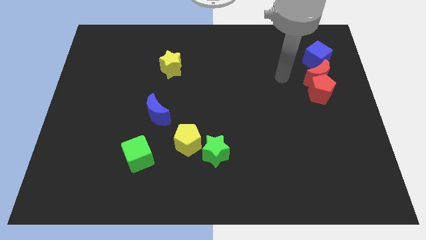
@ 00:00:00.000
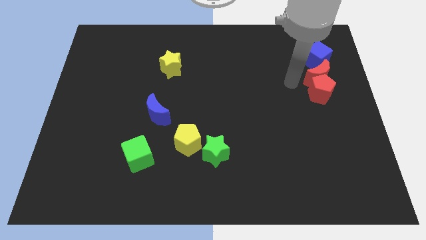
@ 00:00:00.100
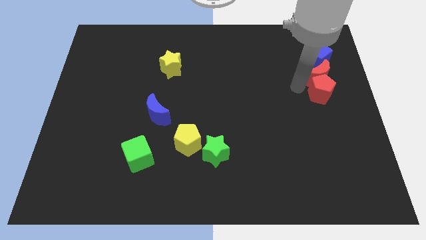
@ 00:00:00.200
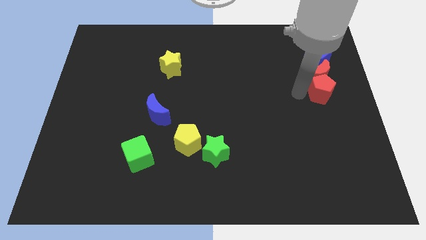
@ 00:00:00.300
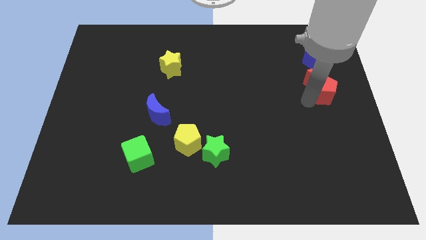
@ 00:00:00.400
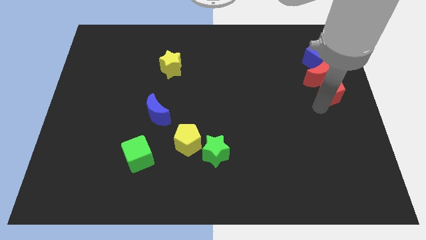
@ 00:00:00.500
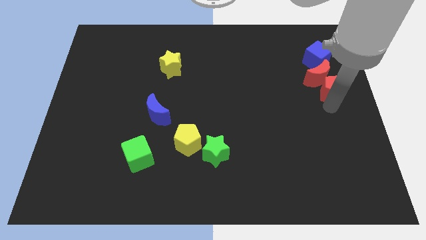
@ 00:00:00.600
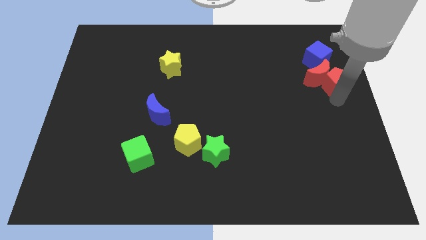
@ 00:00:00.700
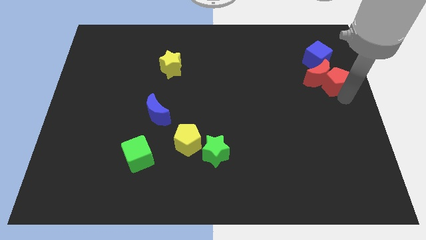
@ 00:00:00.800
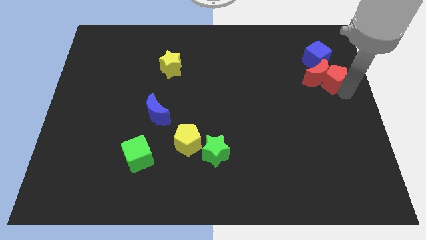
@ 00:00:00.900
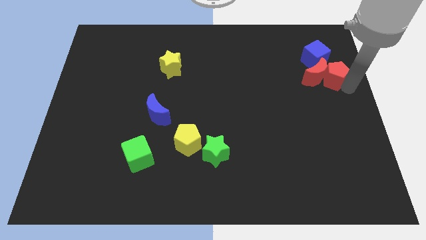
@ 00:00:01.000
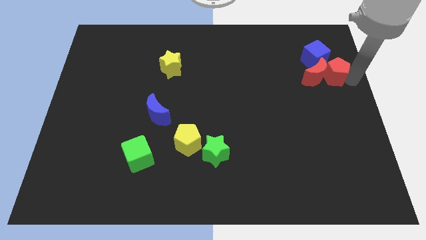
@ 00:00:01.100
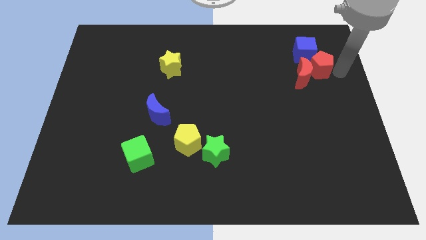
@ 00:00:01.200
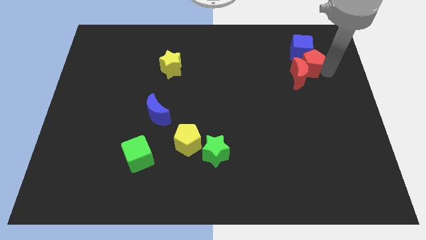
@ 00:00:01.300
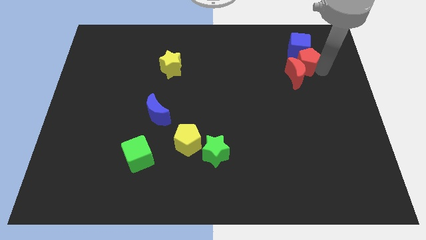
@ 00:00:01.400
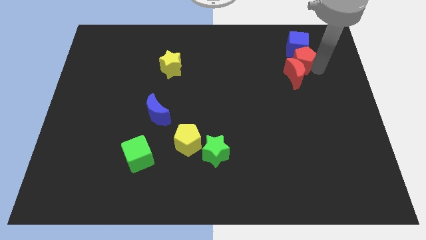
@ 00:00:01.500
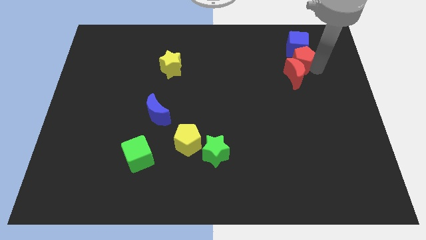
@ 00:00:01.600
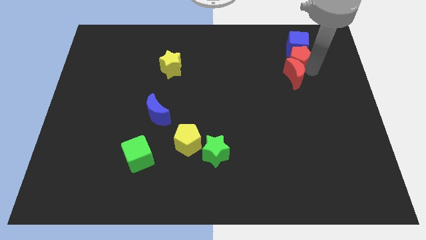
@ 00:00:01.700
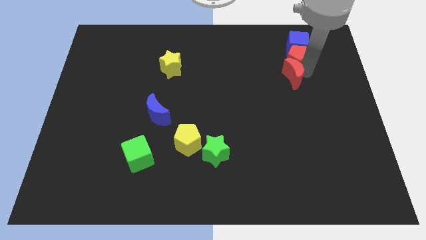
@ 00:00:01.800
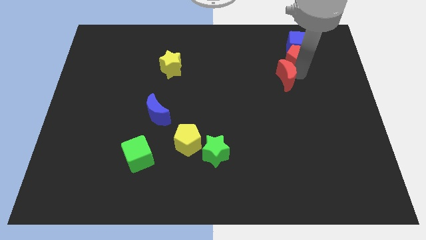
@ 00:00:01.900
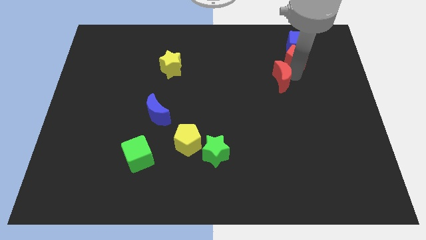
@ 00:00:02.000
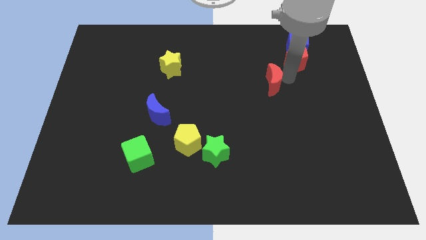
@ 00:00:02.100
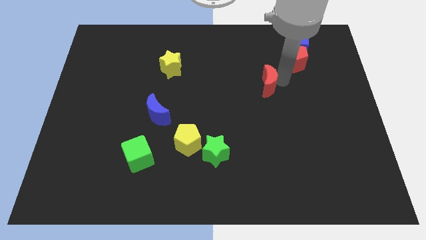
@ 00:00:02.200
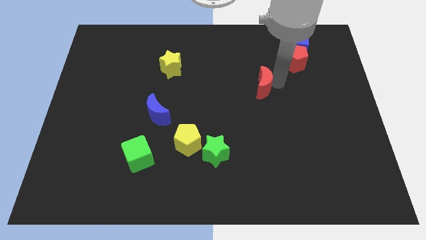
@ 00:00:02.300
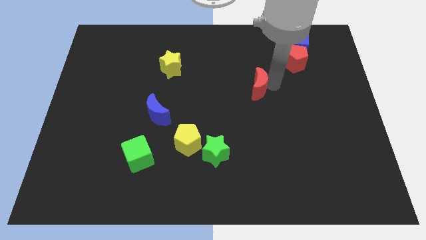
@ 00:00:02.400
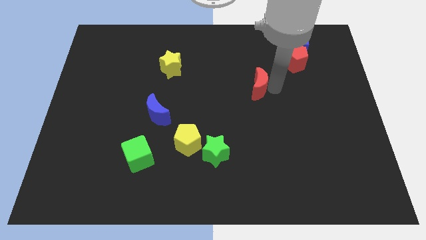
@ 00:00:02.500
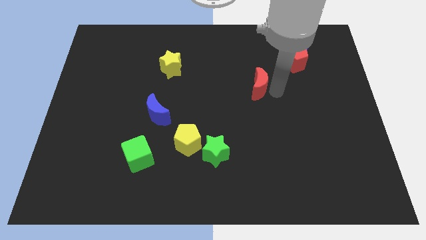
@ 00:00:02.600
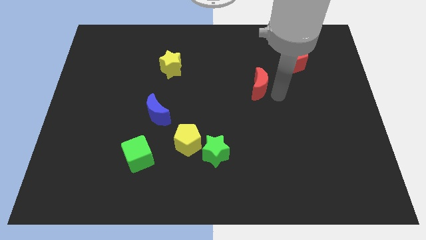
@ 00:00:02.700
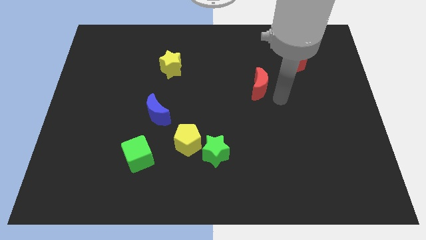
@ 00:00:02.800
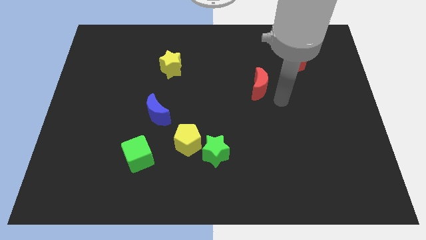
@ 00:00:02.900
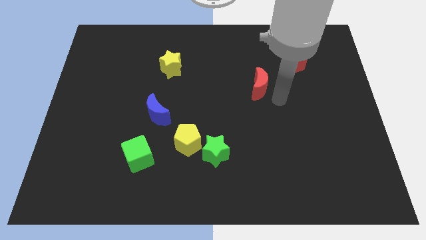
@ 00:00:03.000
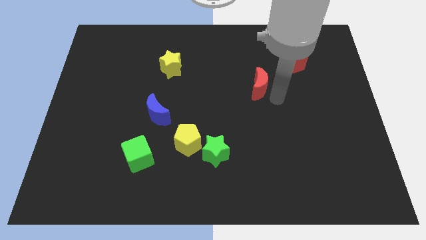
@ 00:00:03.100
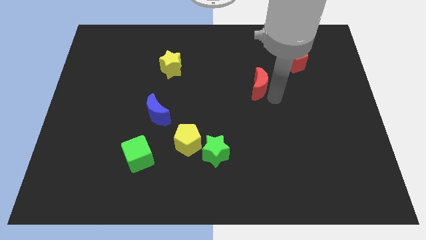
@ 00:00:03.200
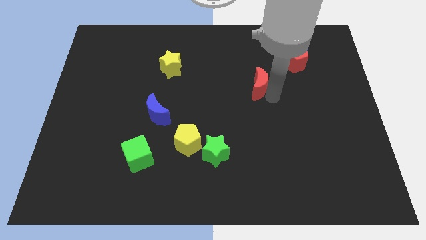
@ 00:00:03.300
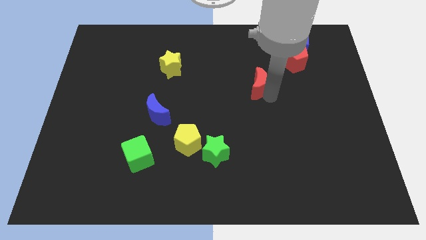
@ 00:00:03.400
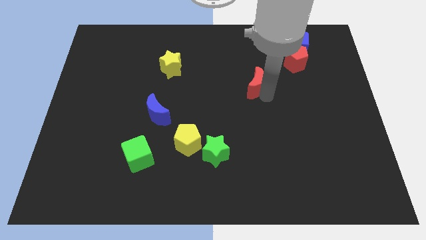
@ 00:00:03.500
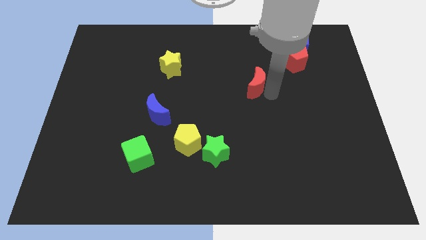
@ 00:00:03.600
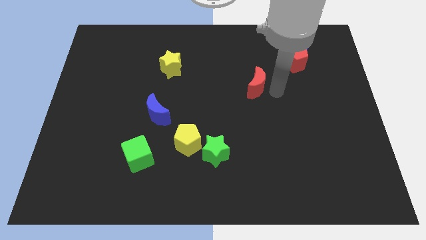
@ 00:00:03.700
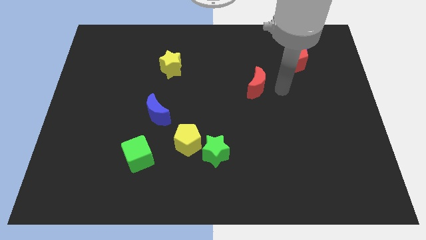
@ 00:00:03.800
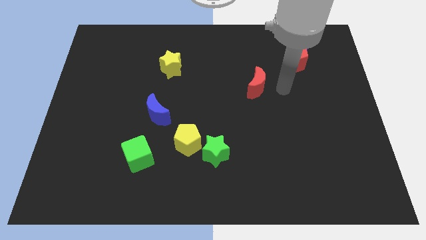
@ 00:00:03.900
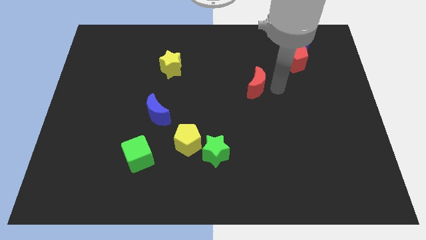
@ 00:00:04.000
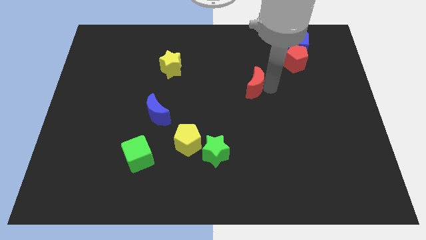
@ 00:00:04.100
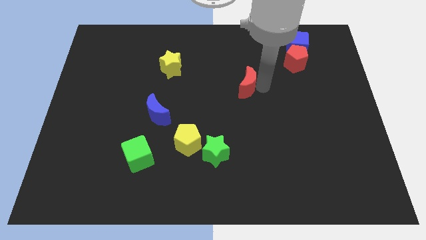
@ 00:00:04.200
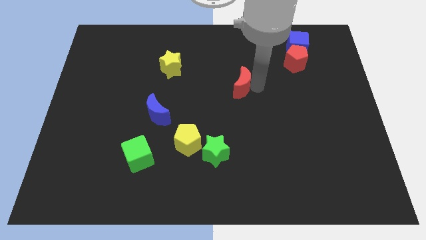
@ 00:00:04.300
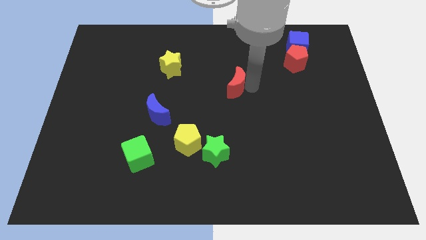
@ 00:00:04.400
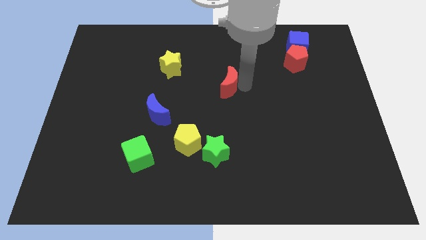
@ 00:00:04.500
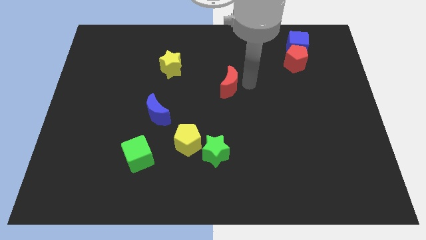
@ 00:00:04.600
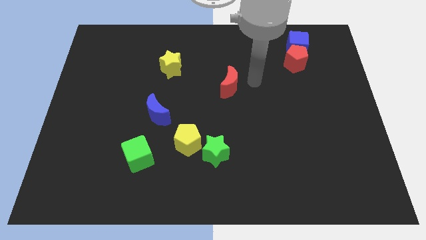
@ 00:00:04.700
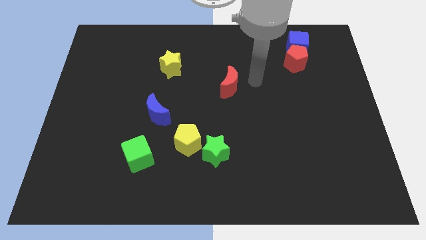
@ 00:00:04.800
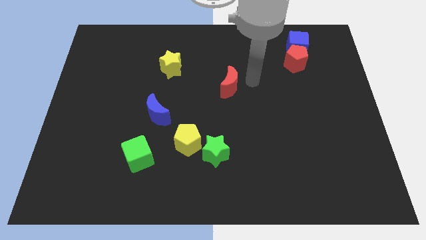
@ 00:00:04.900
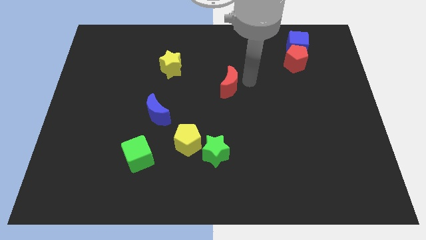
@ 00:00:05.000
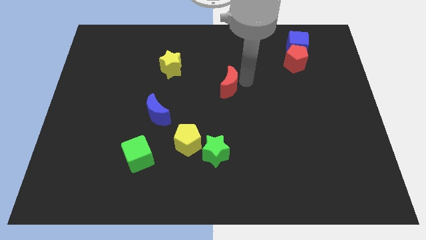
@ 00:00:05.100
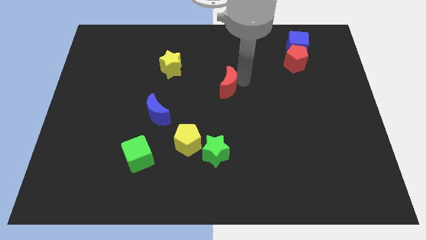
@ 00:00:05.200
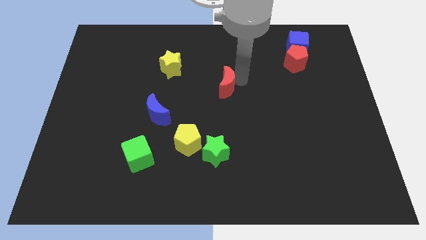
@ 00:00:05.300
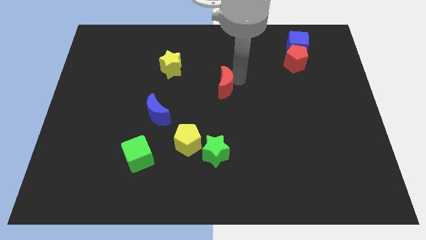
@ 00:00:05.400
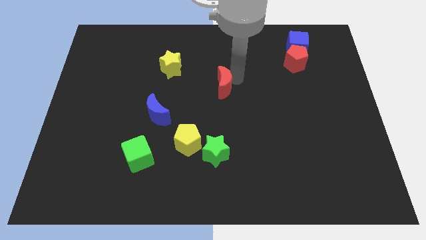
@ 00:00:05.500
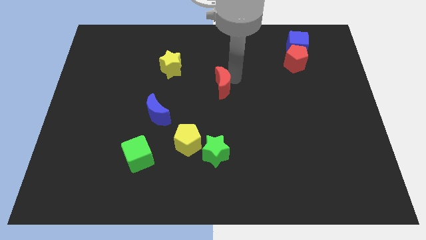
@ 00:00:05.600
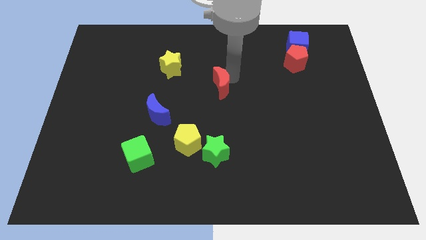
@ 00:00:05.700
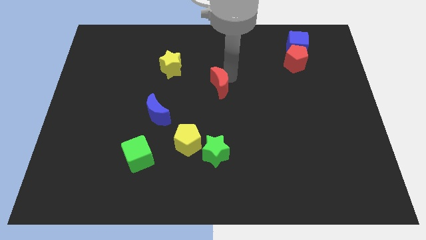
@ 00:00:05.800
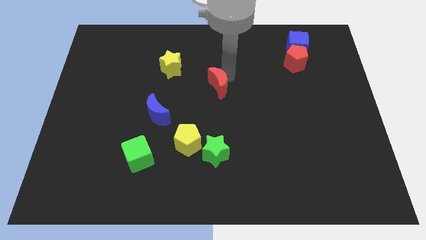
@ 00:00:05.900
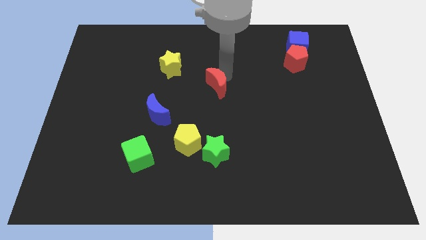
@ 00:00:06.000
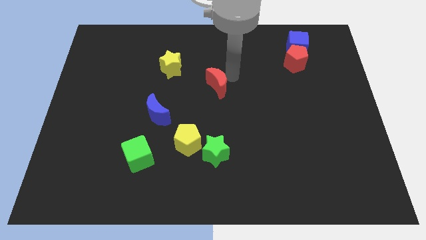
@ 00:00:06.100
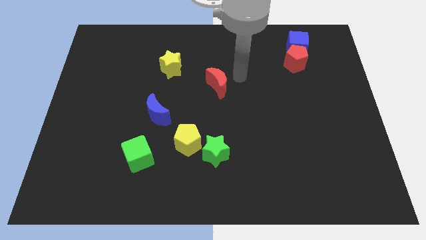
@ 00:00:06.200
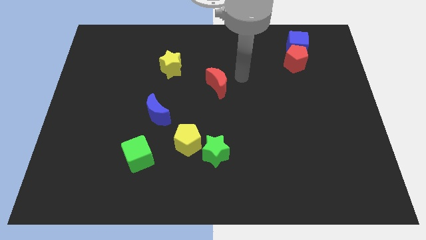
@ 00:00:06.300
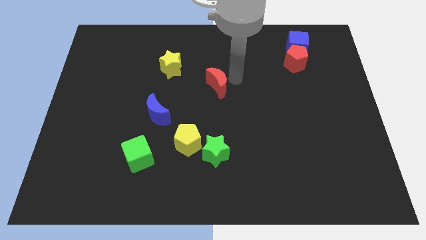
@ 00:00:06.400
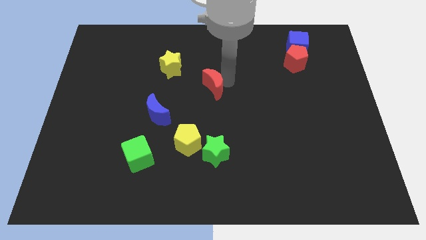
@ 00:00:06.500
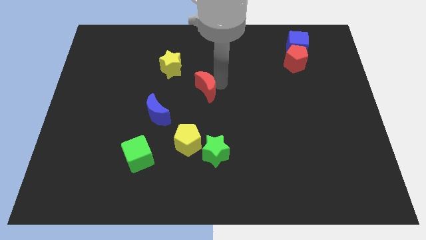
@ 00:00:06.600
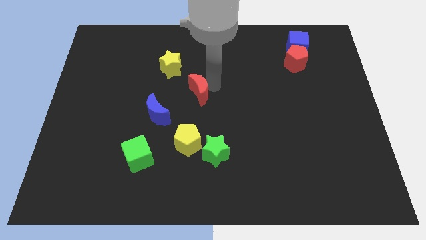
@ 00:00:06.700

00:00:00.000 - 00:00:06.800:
push the red moon to the top right side of the blue moon

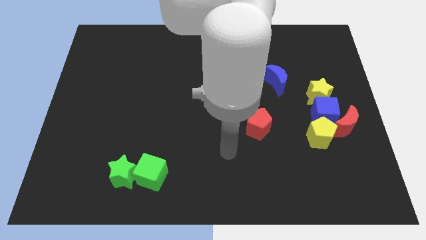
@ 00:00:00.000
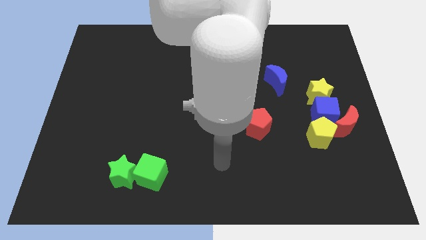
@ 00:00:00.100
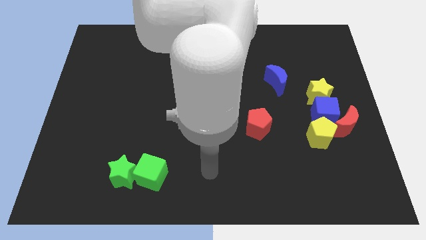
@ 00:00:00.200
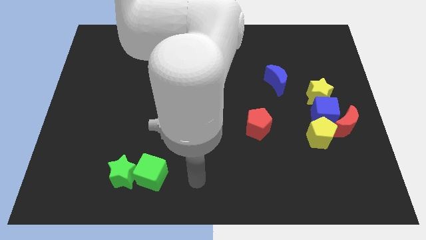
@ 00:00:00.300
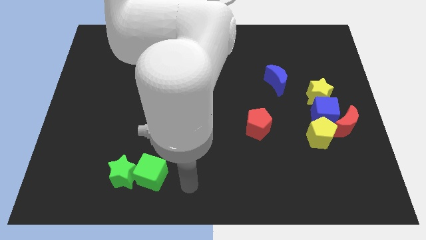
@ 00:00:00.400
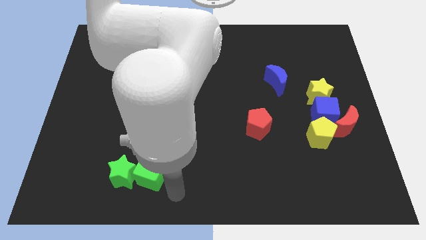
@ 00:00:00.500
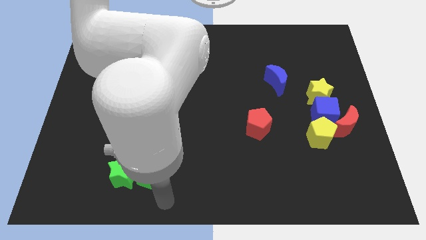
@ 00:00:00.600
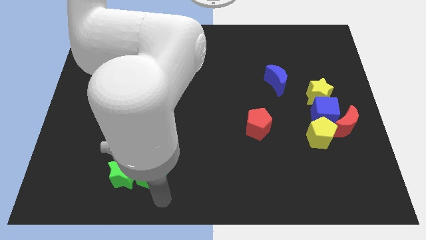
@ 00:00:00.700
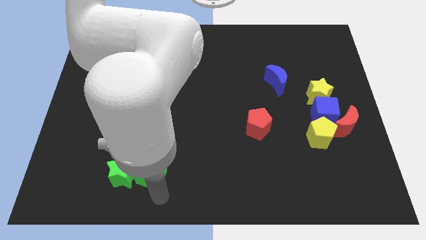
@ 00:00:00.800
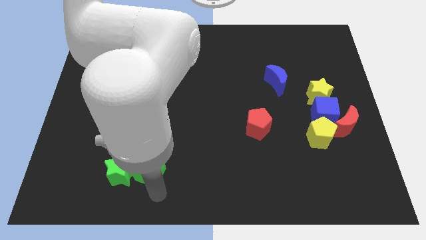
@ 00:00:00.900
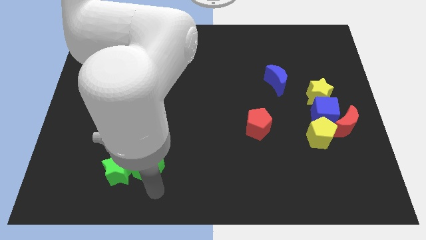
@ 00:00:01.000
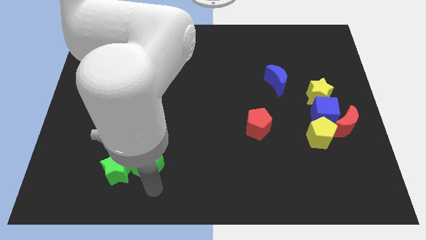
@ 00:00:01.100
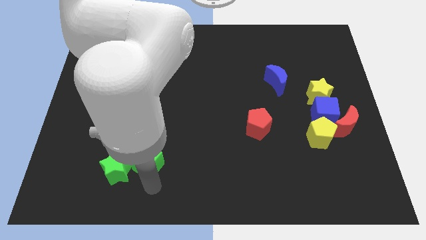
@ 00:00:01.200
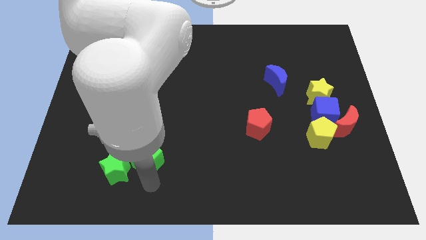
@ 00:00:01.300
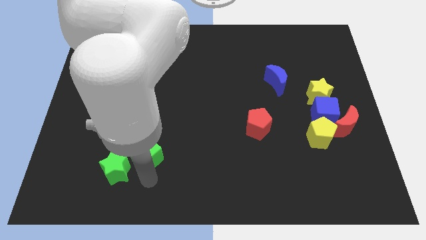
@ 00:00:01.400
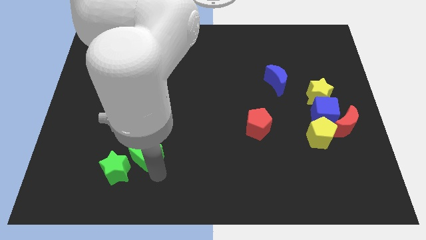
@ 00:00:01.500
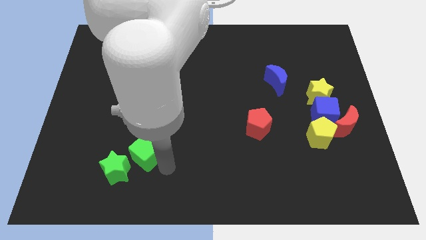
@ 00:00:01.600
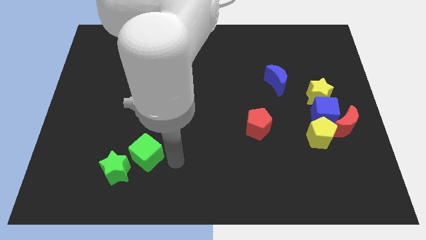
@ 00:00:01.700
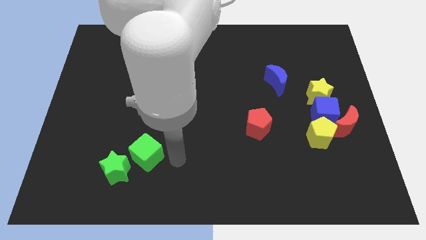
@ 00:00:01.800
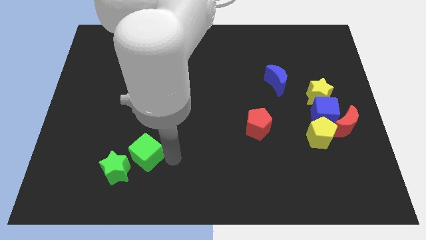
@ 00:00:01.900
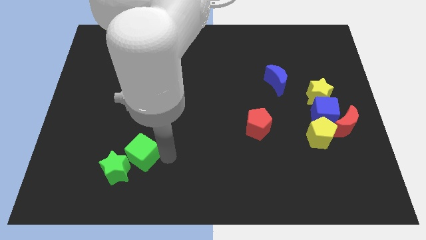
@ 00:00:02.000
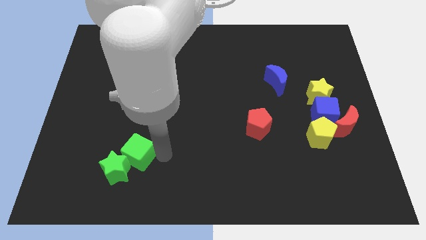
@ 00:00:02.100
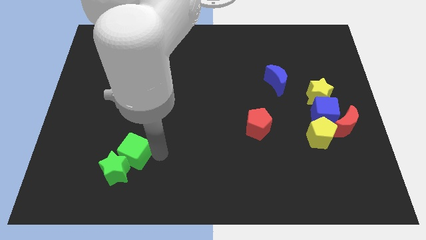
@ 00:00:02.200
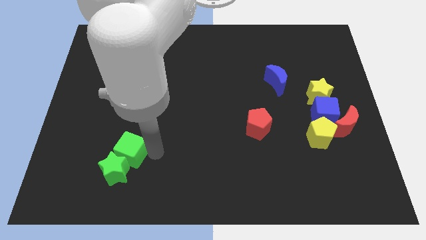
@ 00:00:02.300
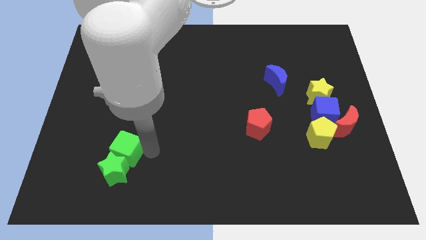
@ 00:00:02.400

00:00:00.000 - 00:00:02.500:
put the green cube diagonally up and to the left of the green star
